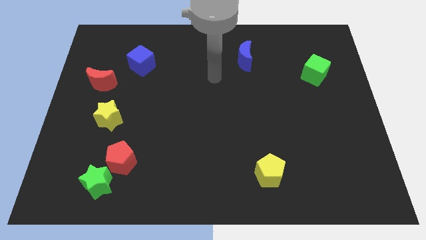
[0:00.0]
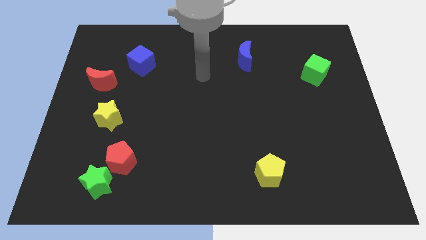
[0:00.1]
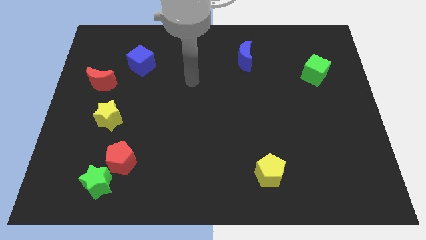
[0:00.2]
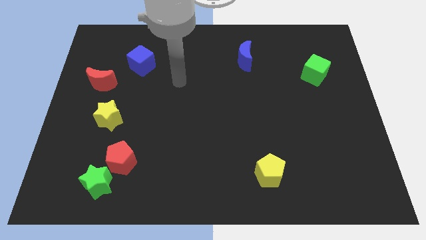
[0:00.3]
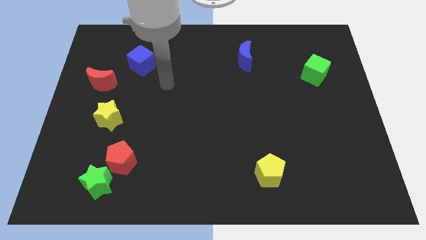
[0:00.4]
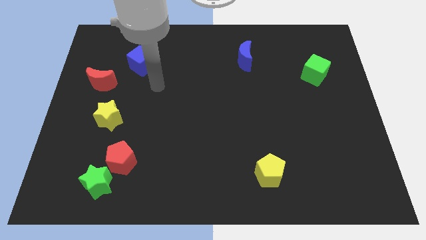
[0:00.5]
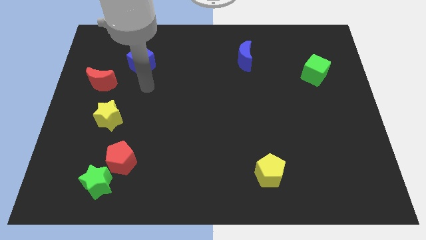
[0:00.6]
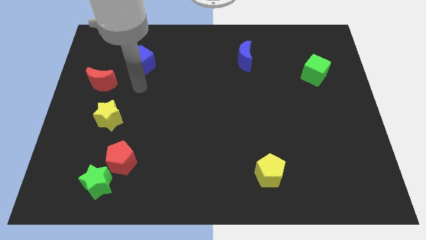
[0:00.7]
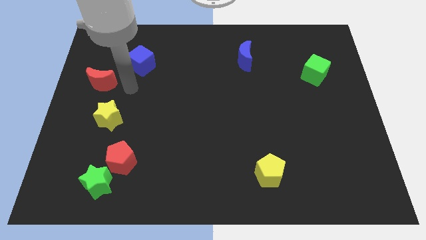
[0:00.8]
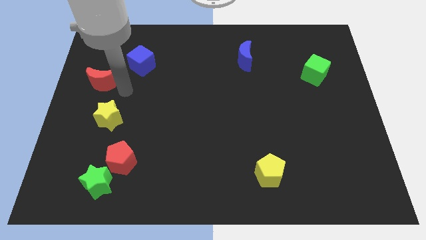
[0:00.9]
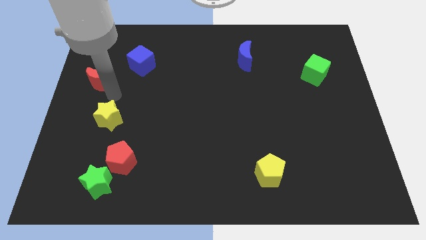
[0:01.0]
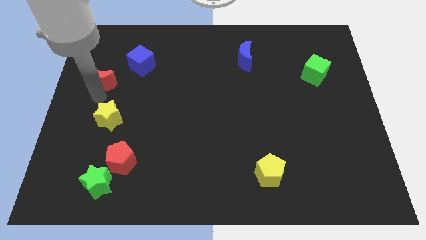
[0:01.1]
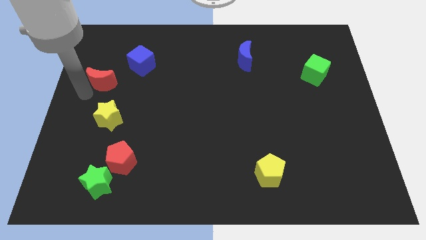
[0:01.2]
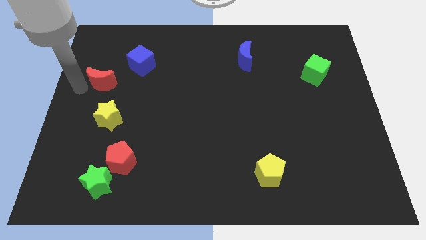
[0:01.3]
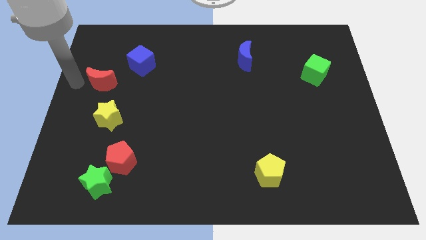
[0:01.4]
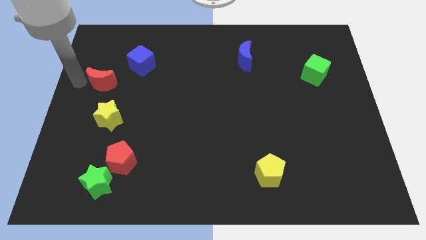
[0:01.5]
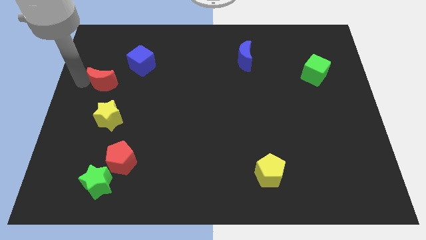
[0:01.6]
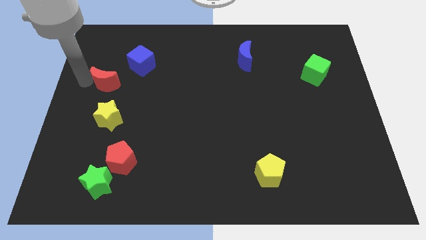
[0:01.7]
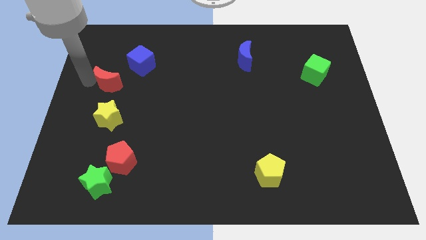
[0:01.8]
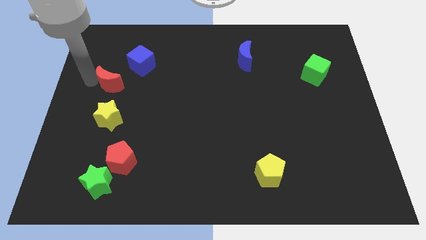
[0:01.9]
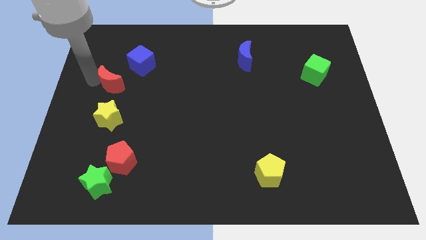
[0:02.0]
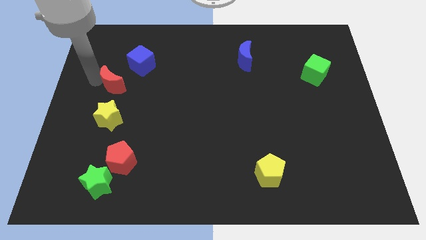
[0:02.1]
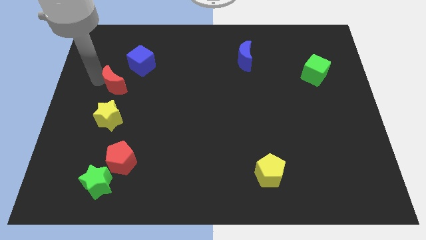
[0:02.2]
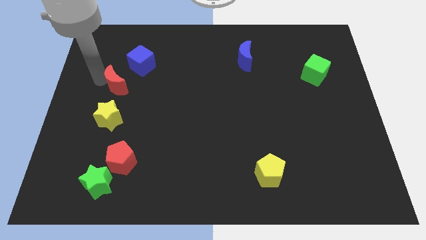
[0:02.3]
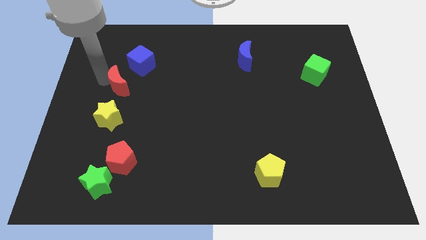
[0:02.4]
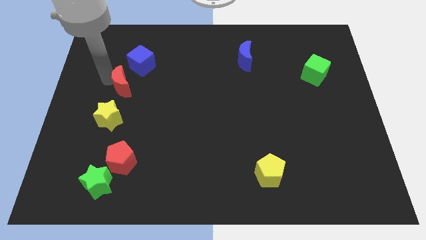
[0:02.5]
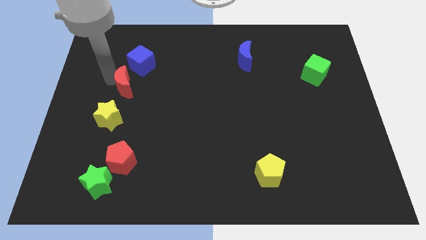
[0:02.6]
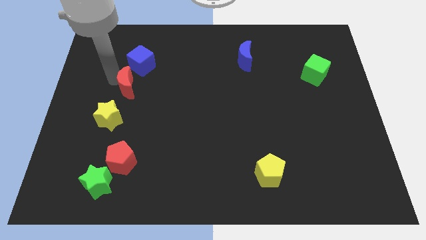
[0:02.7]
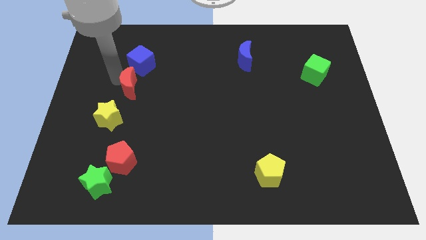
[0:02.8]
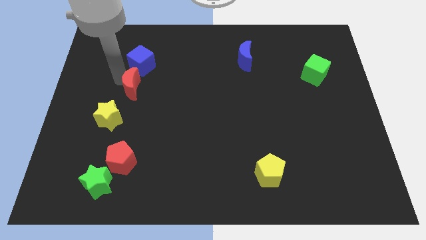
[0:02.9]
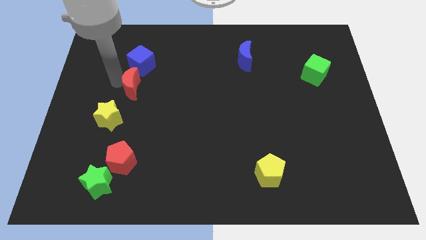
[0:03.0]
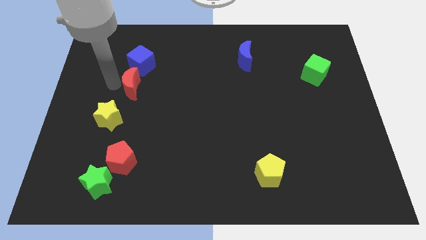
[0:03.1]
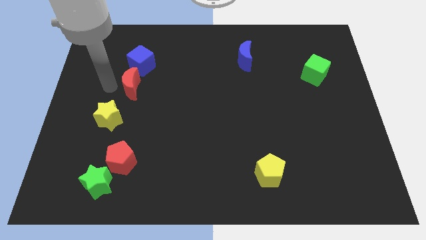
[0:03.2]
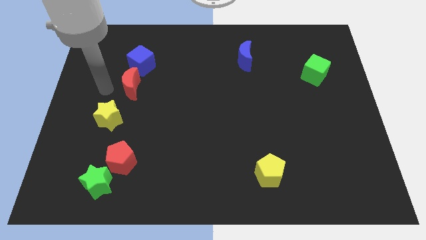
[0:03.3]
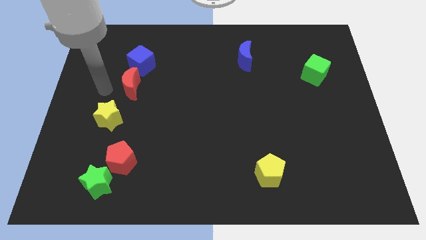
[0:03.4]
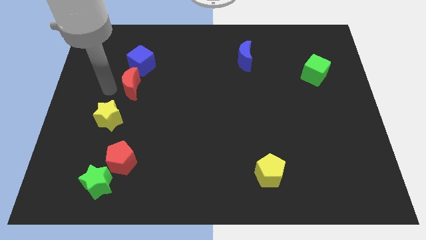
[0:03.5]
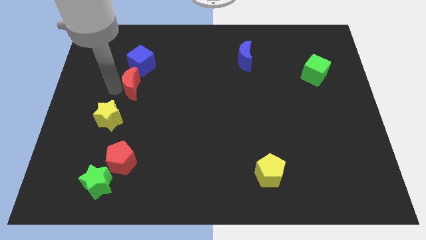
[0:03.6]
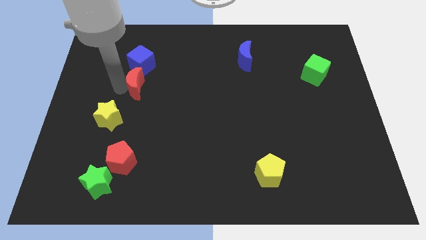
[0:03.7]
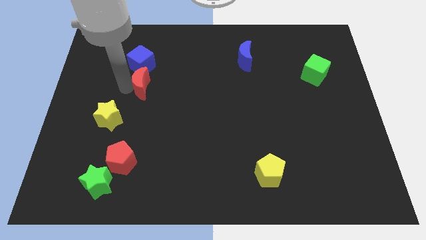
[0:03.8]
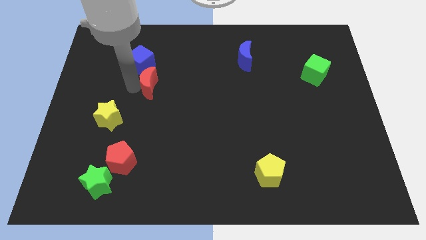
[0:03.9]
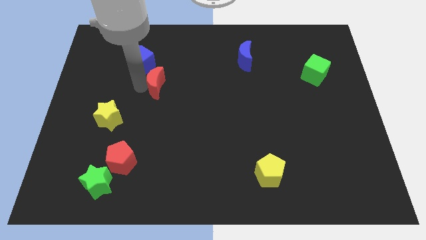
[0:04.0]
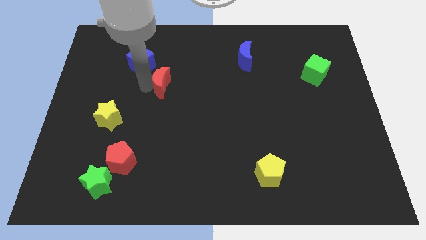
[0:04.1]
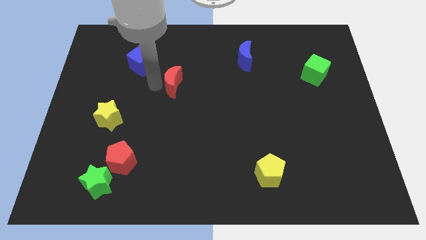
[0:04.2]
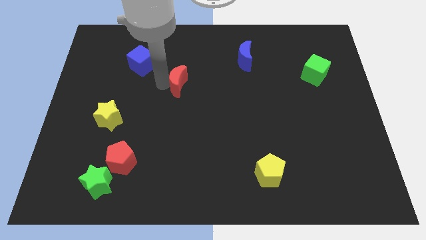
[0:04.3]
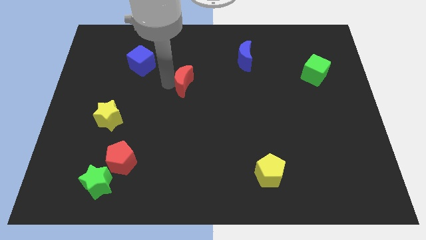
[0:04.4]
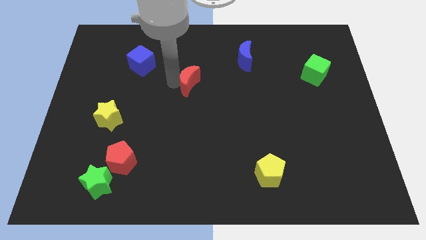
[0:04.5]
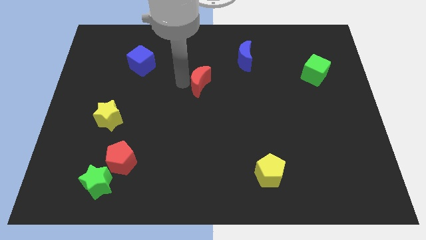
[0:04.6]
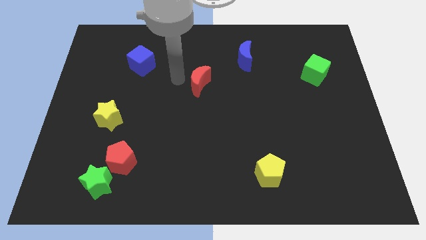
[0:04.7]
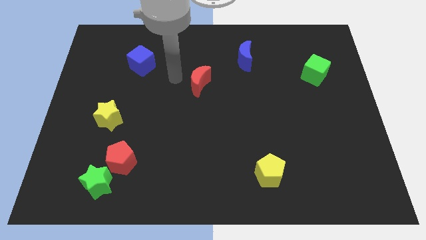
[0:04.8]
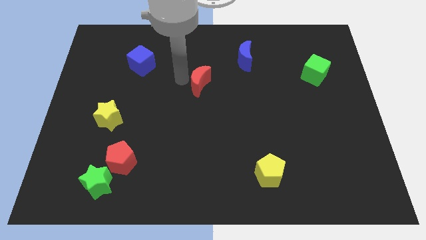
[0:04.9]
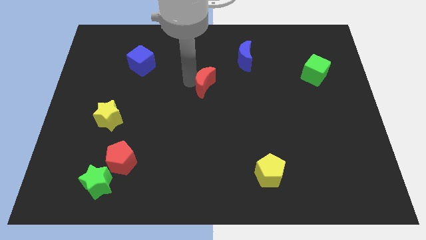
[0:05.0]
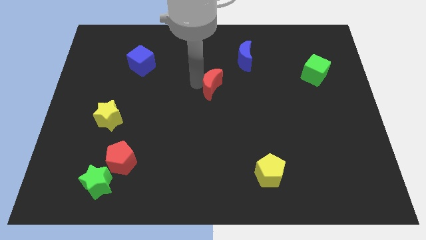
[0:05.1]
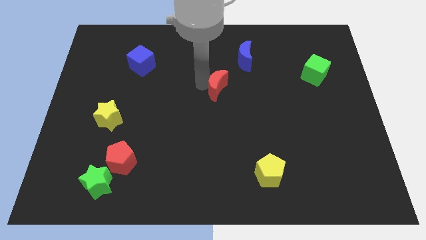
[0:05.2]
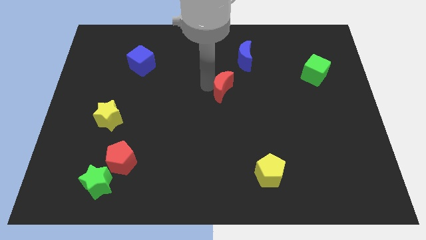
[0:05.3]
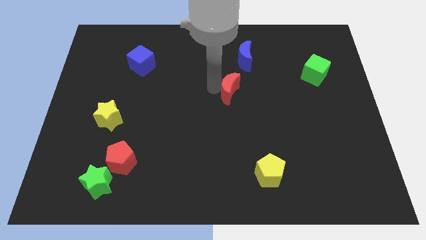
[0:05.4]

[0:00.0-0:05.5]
push the red moon to the bottom side of the blue moon

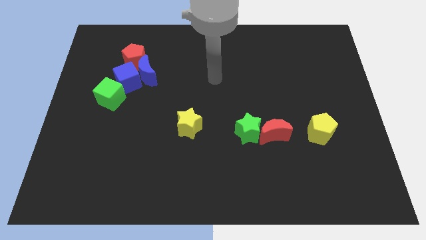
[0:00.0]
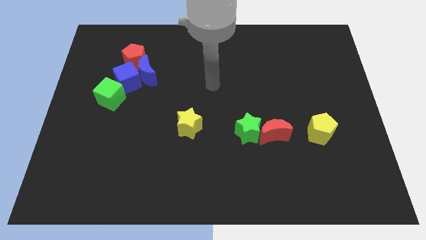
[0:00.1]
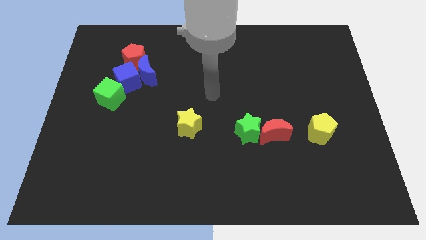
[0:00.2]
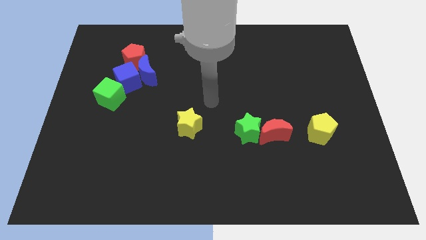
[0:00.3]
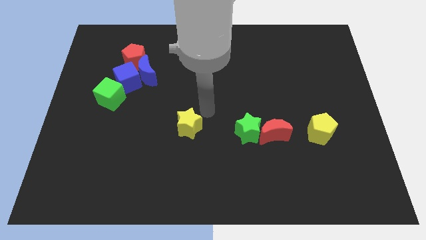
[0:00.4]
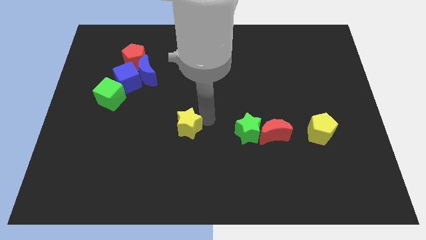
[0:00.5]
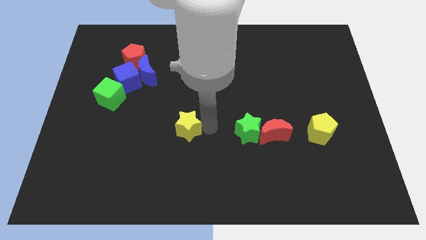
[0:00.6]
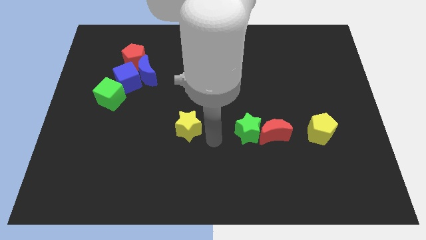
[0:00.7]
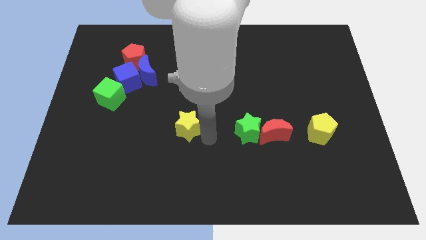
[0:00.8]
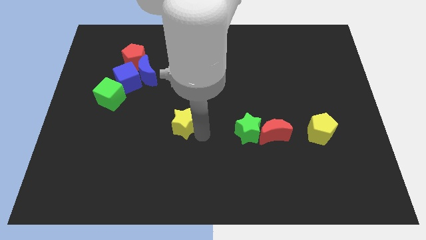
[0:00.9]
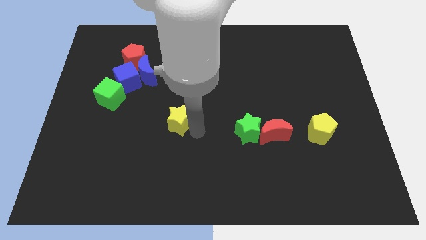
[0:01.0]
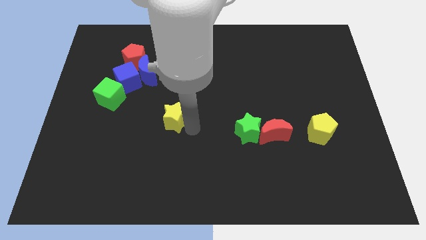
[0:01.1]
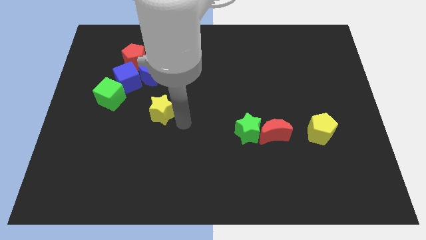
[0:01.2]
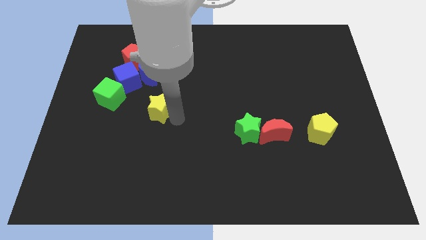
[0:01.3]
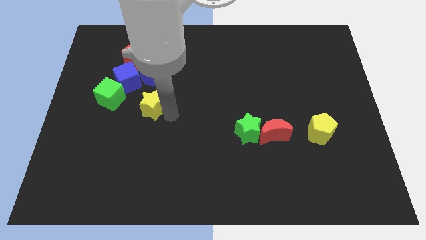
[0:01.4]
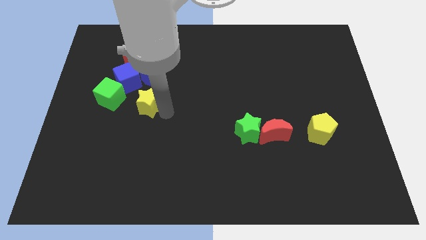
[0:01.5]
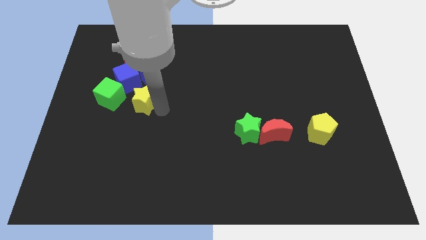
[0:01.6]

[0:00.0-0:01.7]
put the yellow star below the red pentagon

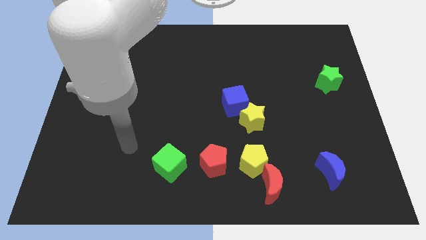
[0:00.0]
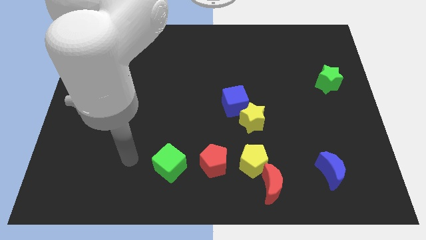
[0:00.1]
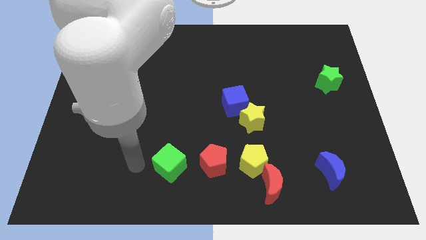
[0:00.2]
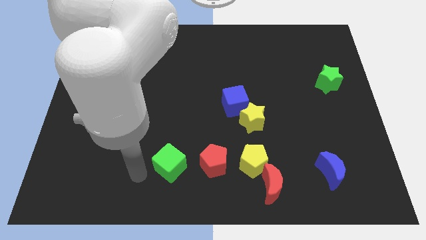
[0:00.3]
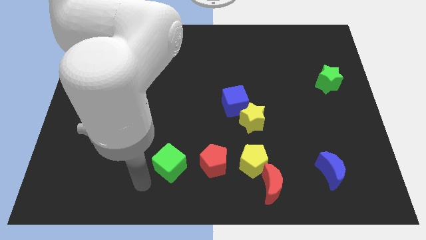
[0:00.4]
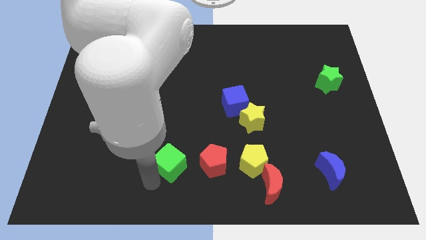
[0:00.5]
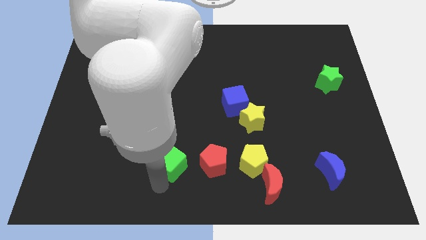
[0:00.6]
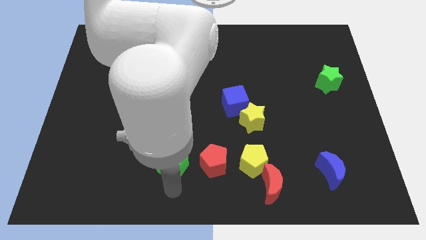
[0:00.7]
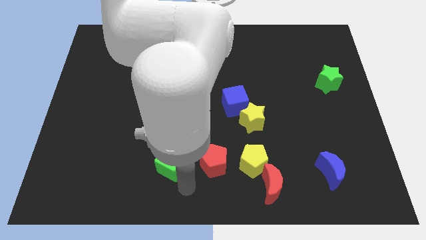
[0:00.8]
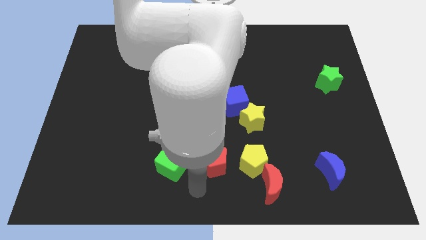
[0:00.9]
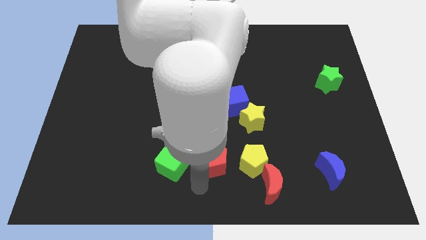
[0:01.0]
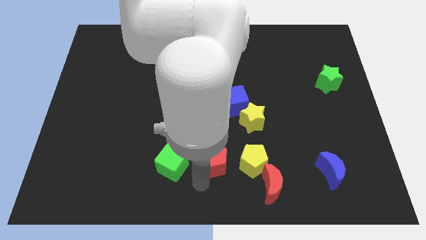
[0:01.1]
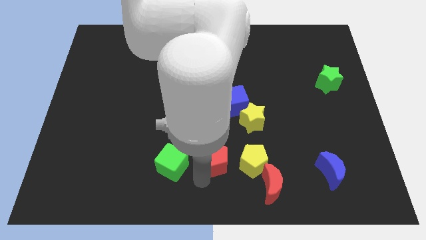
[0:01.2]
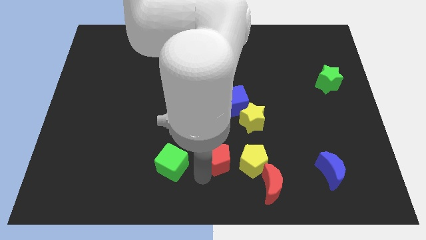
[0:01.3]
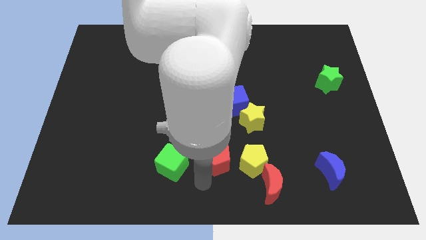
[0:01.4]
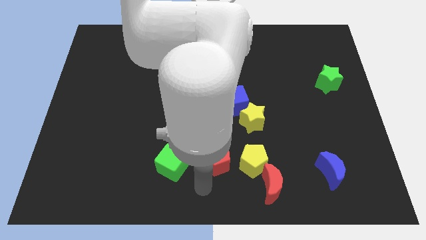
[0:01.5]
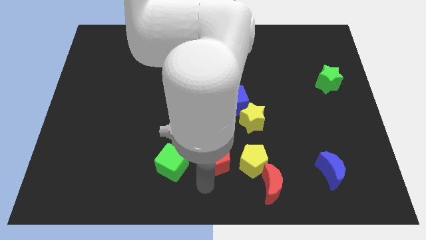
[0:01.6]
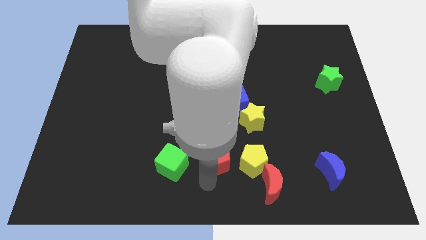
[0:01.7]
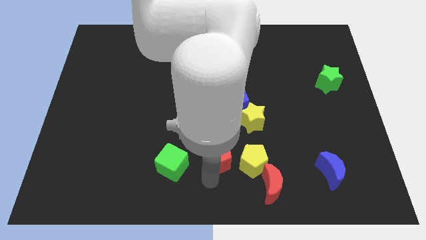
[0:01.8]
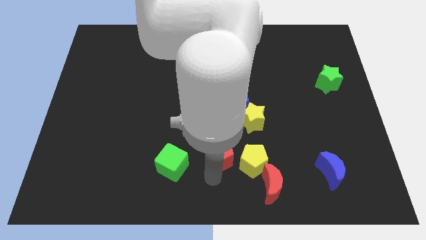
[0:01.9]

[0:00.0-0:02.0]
slide the red pentagon to the bottom left side of the yellow star
